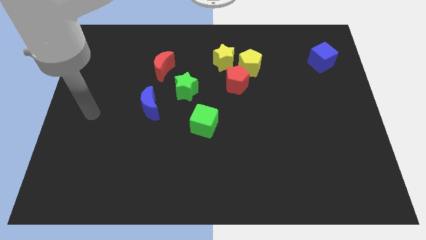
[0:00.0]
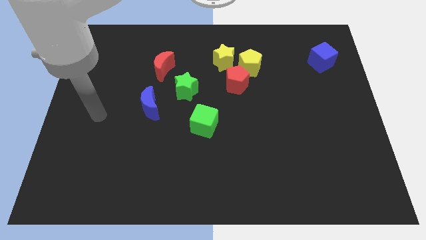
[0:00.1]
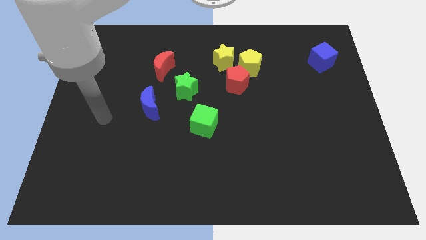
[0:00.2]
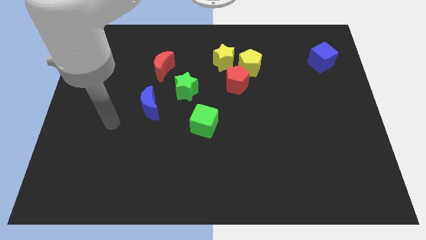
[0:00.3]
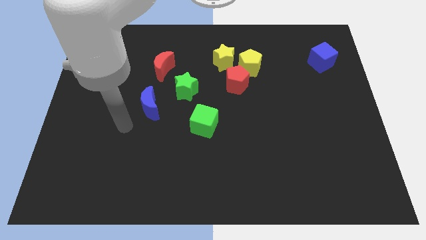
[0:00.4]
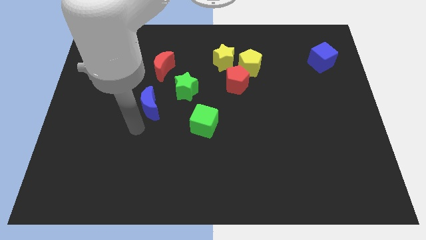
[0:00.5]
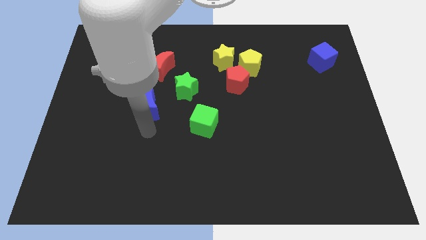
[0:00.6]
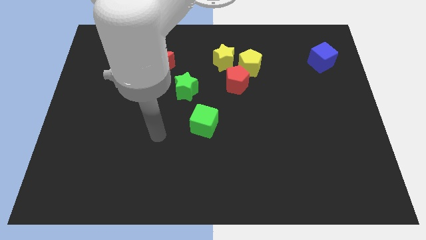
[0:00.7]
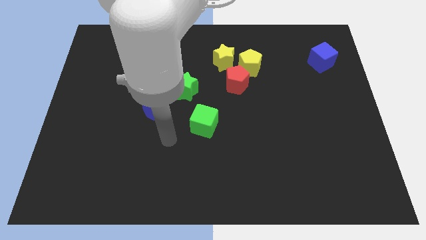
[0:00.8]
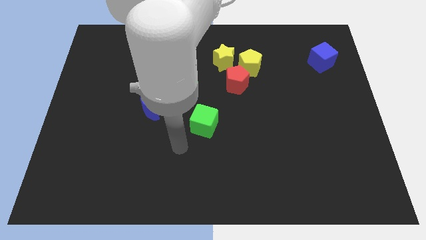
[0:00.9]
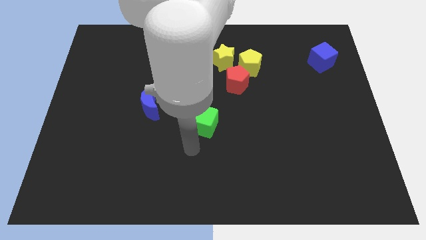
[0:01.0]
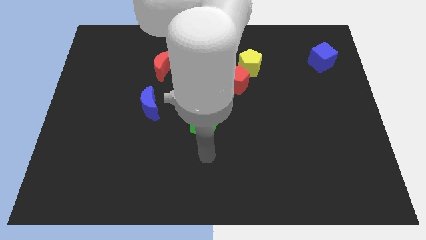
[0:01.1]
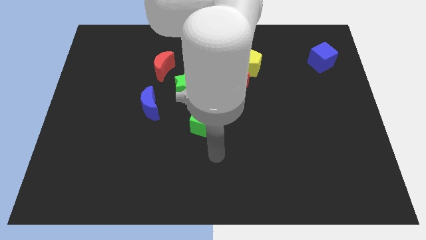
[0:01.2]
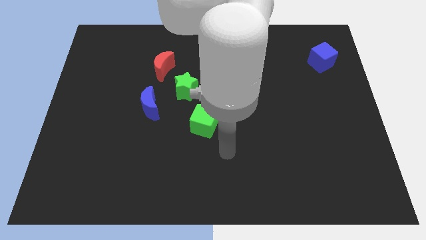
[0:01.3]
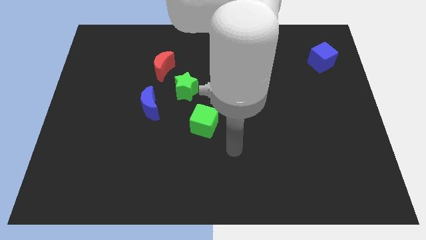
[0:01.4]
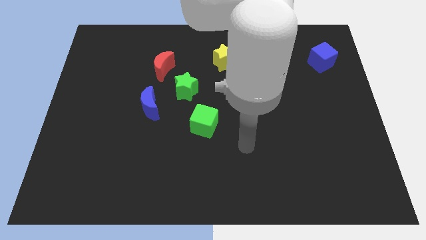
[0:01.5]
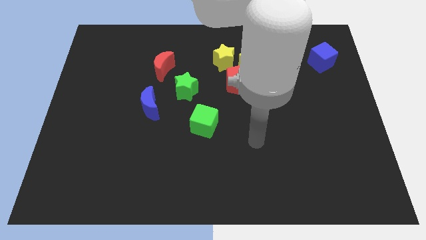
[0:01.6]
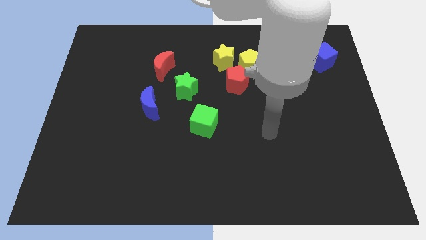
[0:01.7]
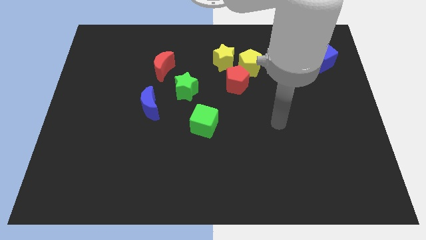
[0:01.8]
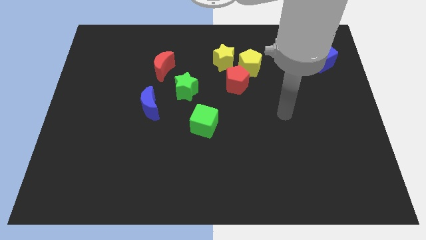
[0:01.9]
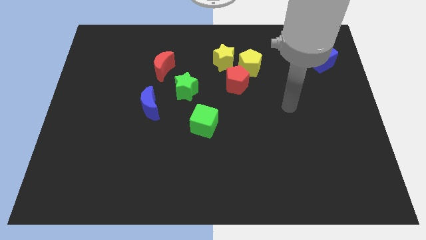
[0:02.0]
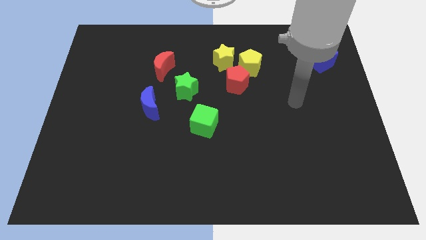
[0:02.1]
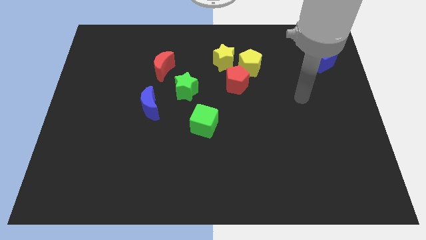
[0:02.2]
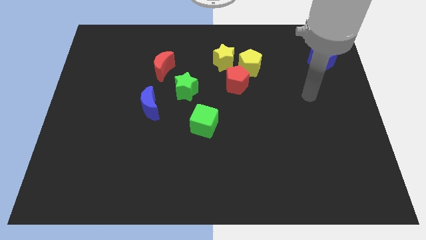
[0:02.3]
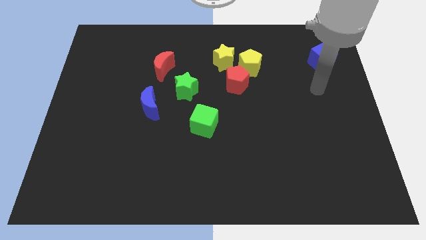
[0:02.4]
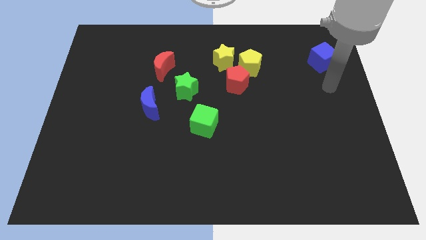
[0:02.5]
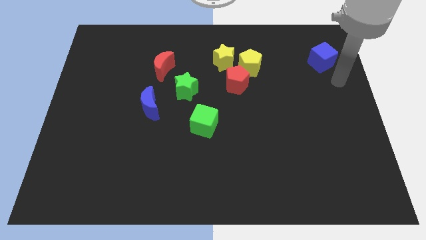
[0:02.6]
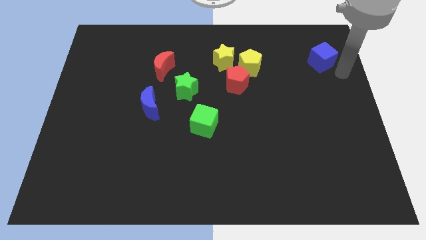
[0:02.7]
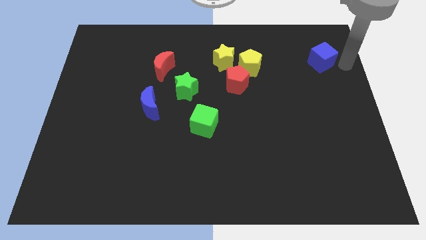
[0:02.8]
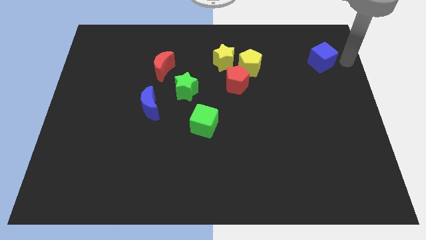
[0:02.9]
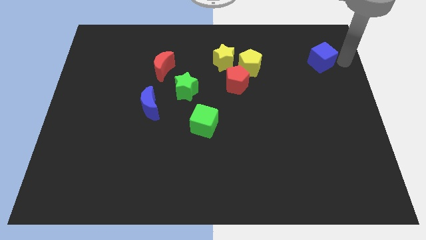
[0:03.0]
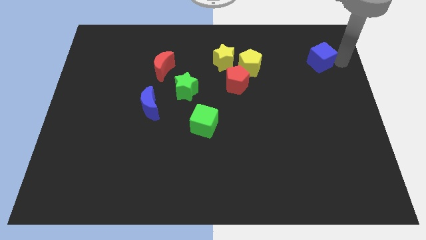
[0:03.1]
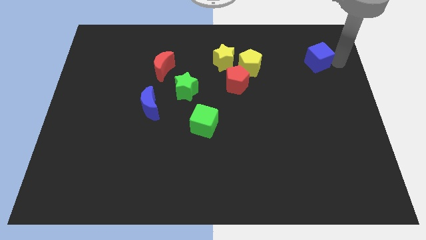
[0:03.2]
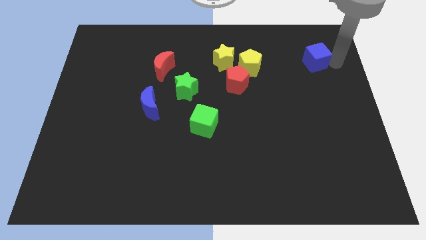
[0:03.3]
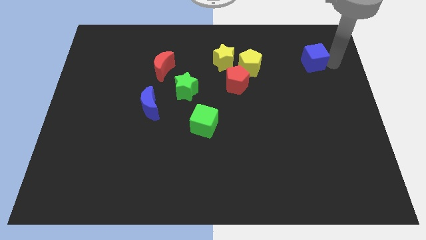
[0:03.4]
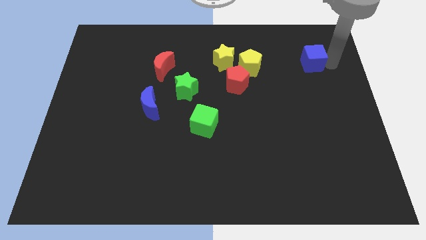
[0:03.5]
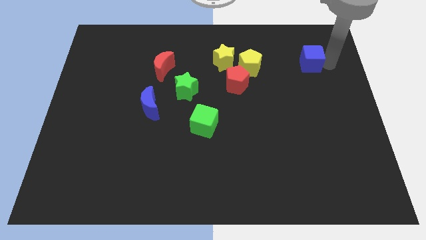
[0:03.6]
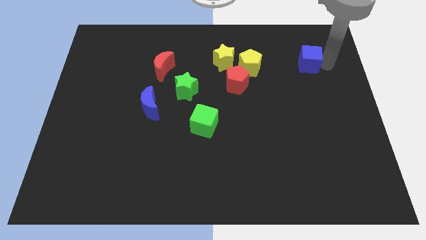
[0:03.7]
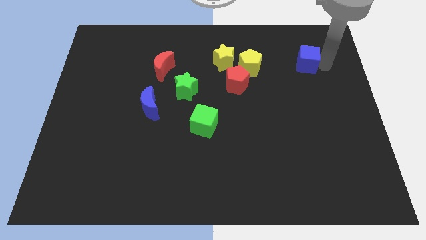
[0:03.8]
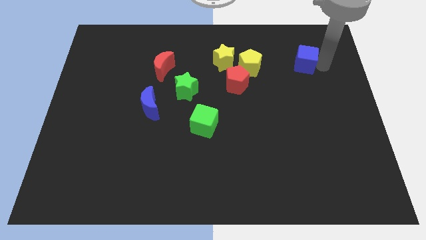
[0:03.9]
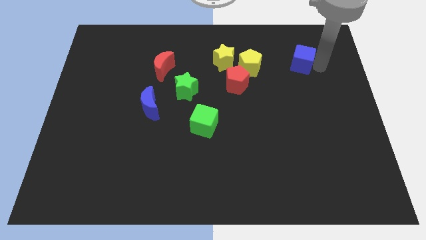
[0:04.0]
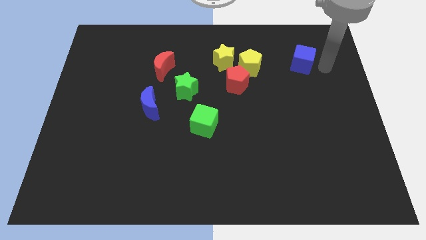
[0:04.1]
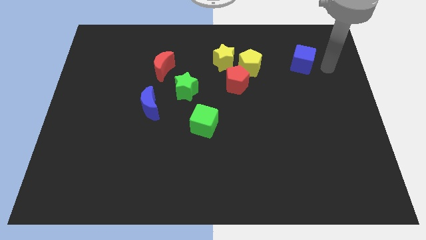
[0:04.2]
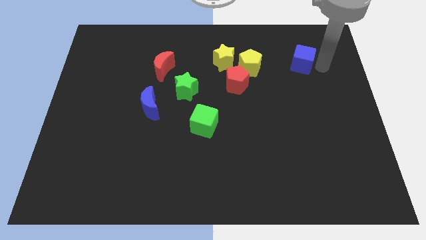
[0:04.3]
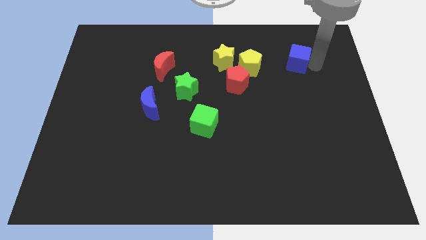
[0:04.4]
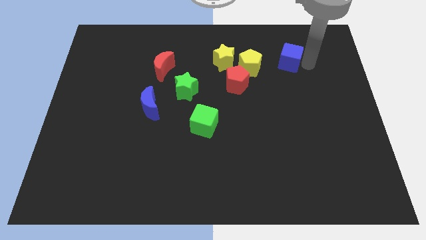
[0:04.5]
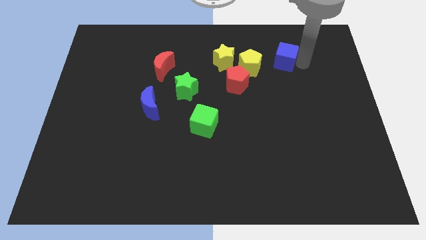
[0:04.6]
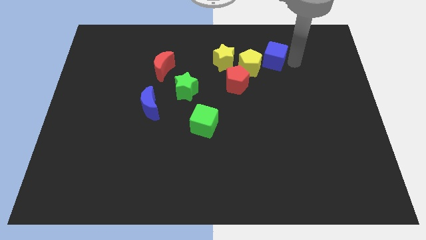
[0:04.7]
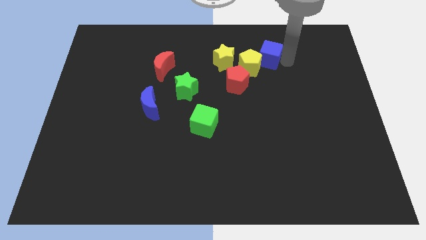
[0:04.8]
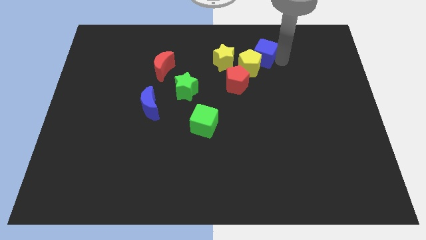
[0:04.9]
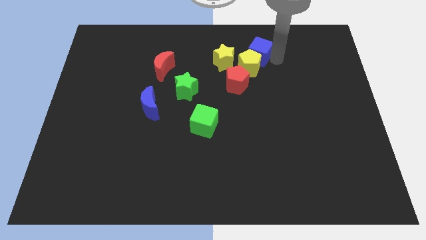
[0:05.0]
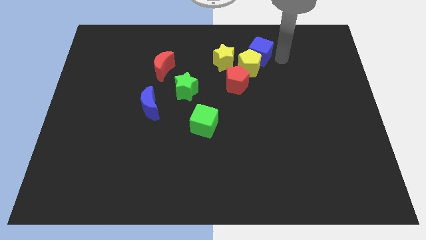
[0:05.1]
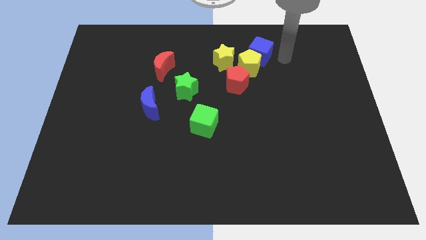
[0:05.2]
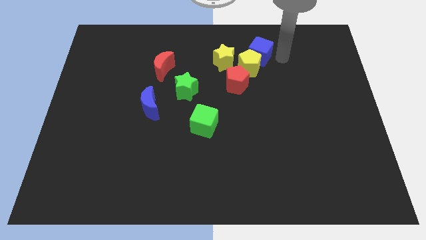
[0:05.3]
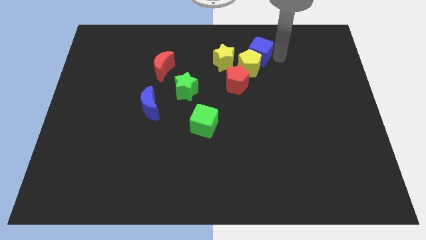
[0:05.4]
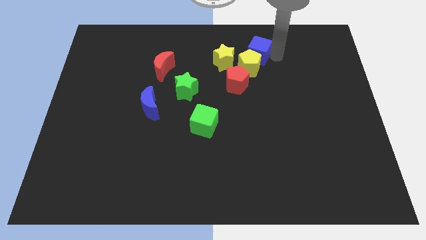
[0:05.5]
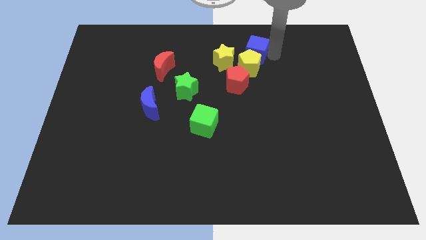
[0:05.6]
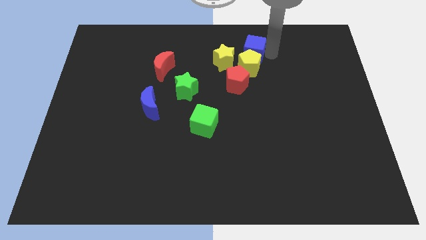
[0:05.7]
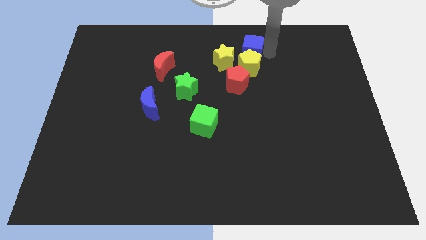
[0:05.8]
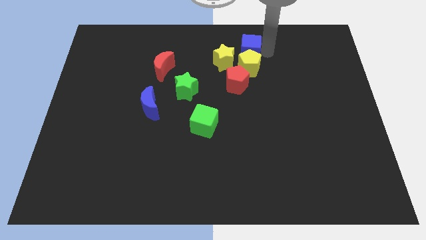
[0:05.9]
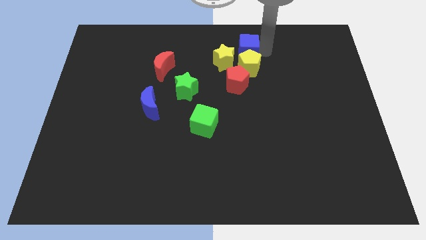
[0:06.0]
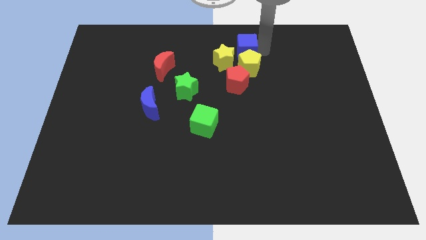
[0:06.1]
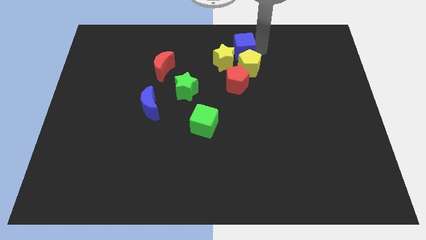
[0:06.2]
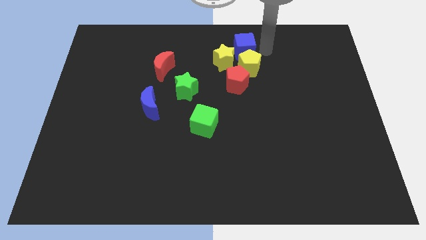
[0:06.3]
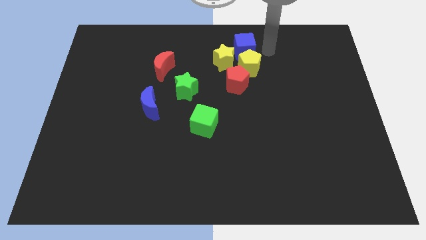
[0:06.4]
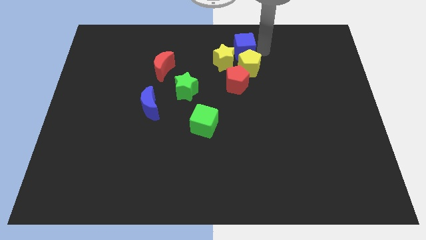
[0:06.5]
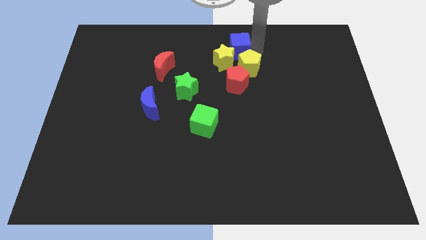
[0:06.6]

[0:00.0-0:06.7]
move the blue cube to the left

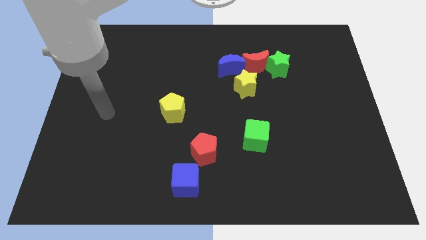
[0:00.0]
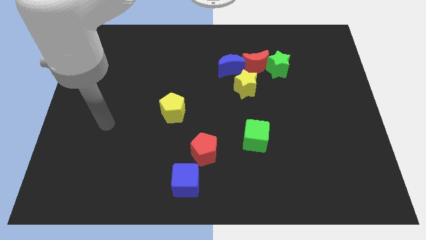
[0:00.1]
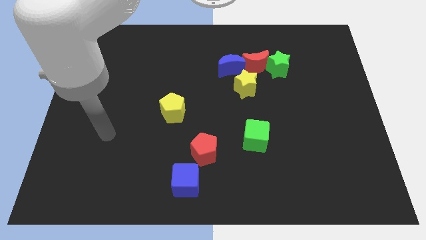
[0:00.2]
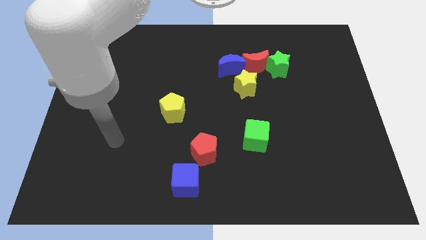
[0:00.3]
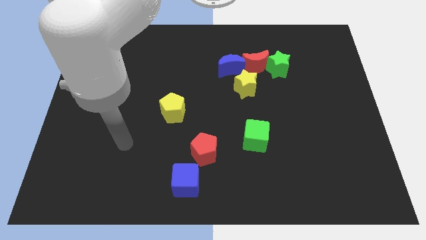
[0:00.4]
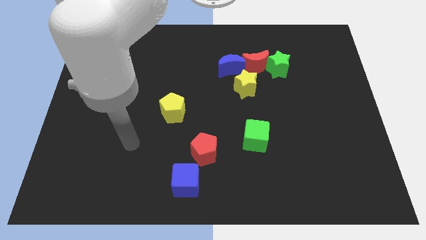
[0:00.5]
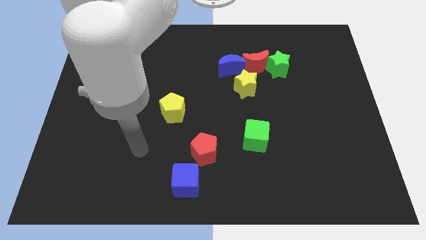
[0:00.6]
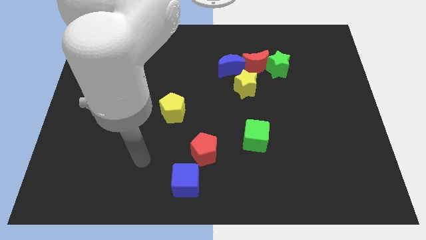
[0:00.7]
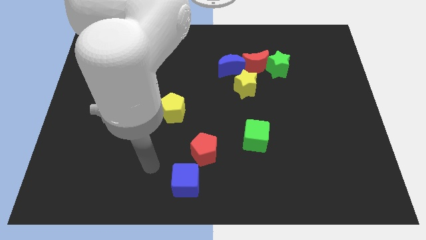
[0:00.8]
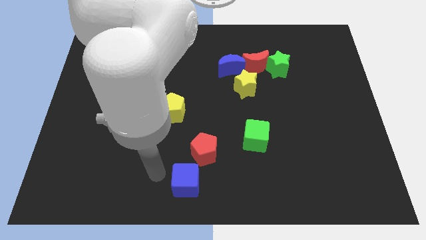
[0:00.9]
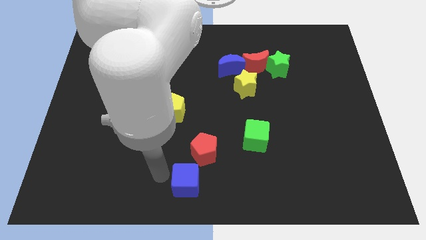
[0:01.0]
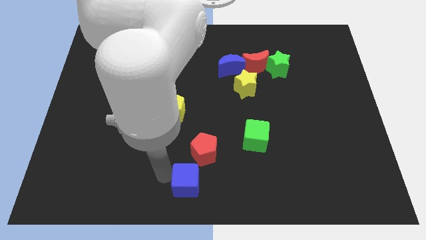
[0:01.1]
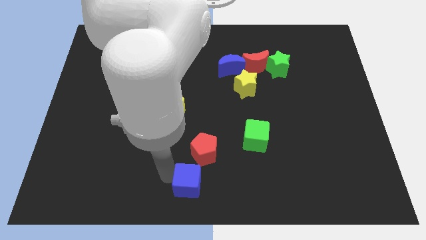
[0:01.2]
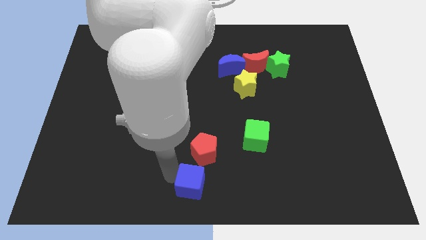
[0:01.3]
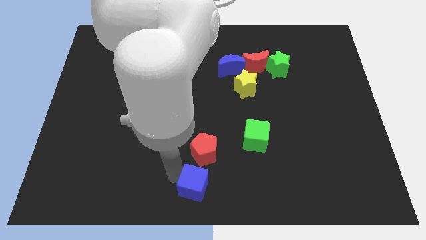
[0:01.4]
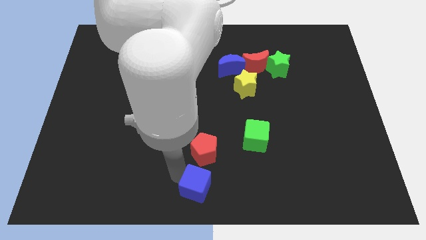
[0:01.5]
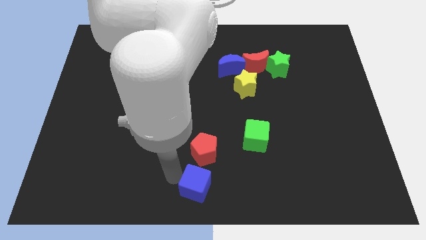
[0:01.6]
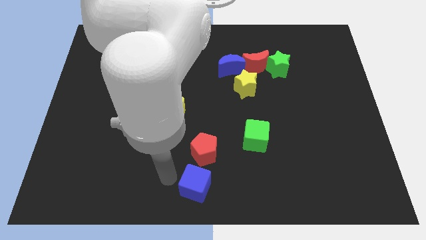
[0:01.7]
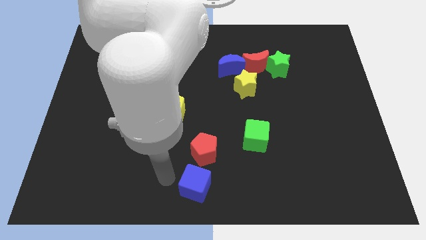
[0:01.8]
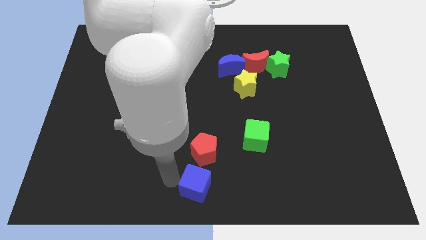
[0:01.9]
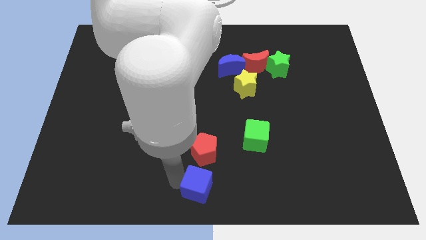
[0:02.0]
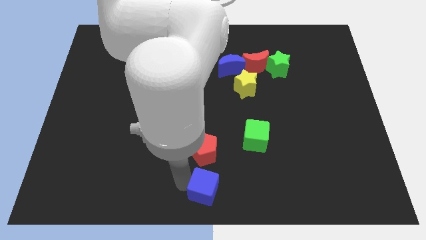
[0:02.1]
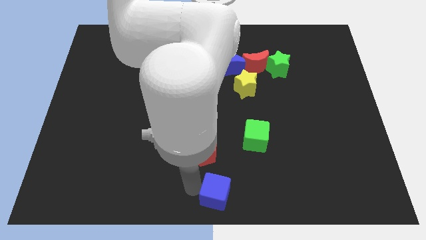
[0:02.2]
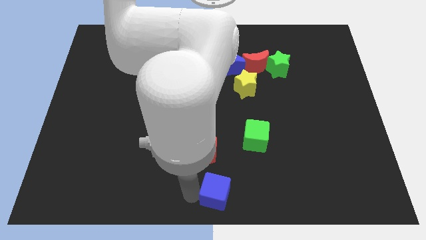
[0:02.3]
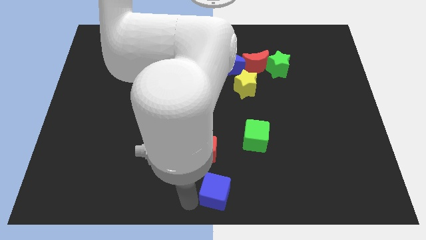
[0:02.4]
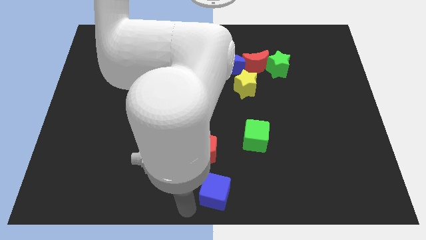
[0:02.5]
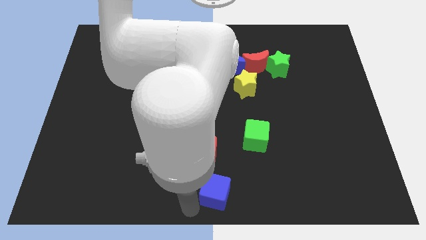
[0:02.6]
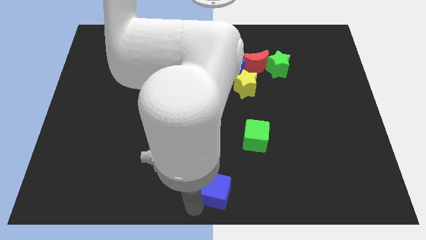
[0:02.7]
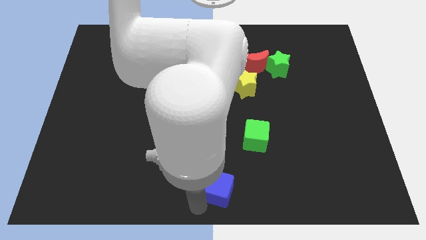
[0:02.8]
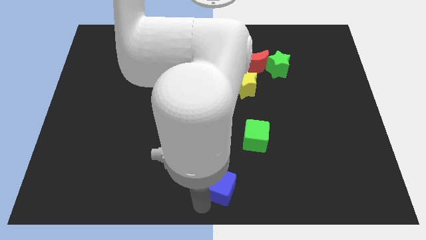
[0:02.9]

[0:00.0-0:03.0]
push the blue cube right a bit
